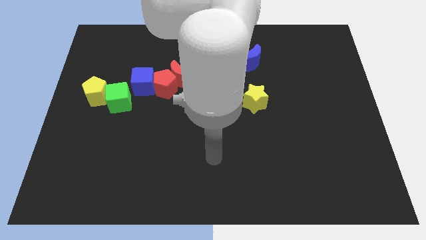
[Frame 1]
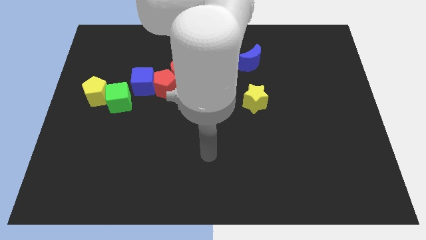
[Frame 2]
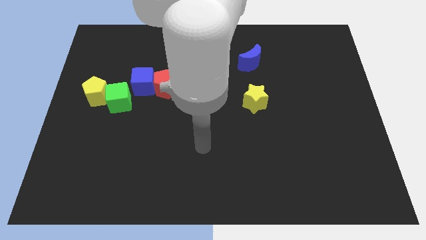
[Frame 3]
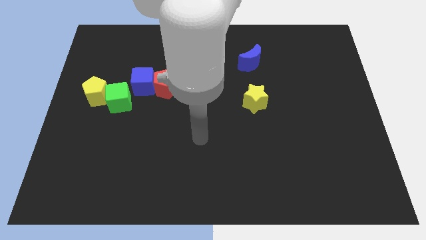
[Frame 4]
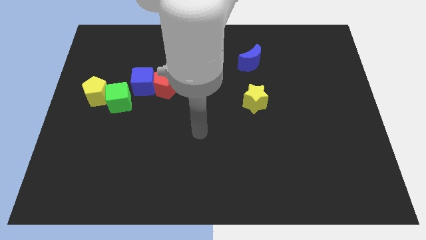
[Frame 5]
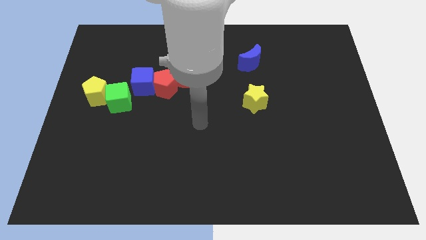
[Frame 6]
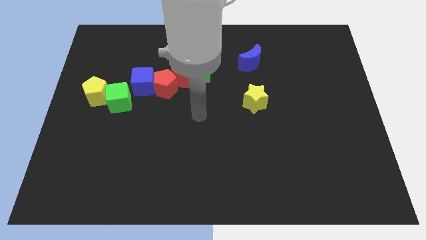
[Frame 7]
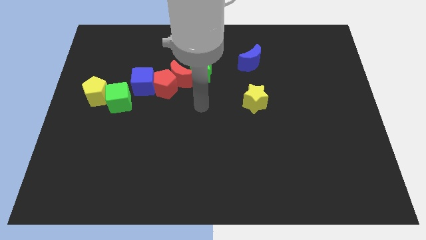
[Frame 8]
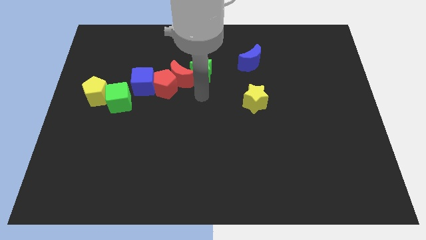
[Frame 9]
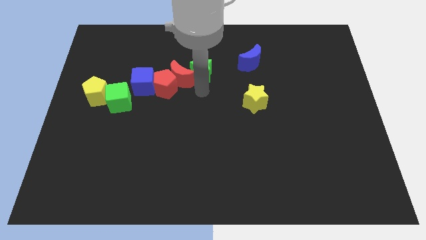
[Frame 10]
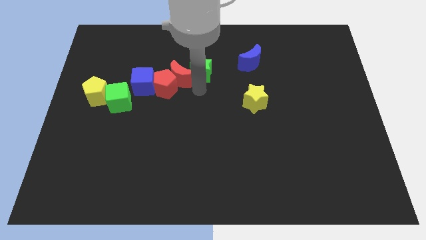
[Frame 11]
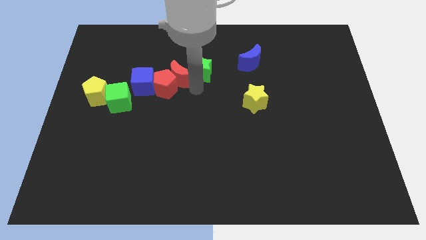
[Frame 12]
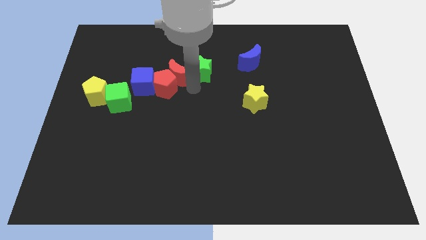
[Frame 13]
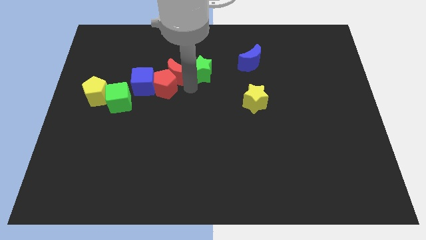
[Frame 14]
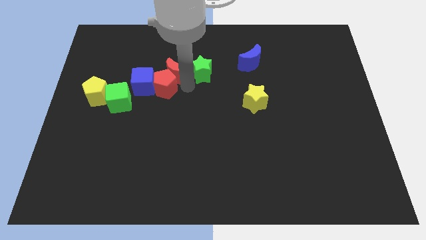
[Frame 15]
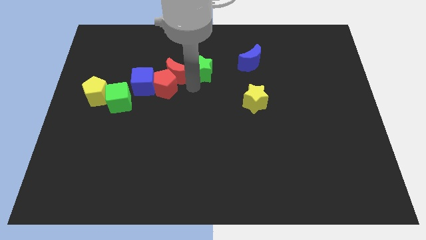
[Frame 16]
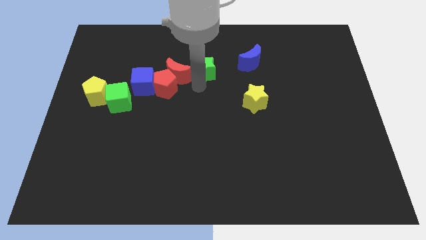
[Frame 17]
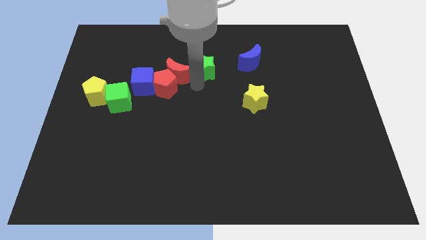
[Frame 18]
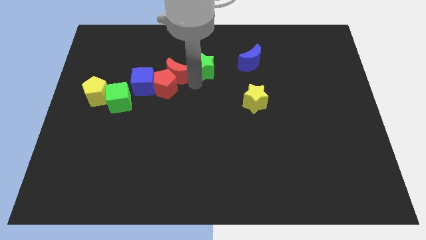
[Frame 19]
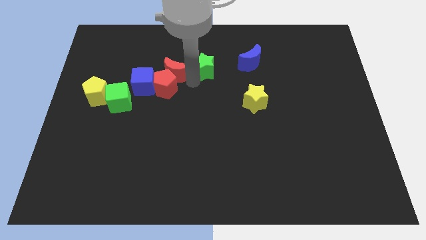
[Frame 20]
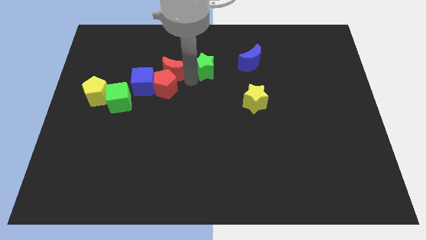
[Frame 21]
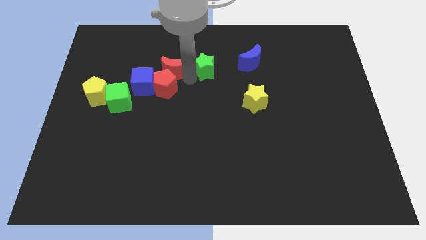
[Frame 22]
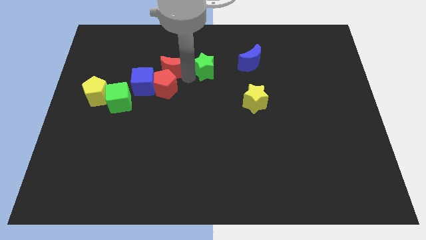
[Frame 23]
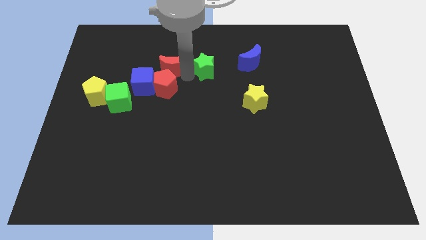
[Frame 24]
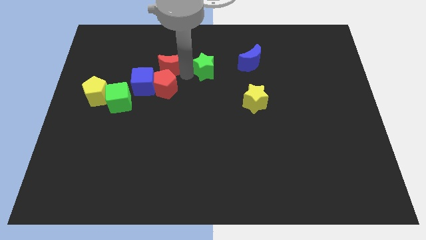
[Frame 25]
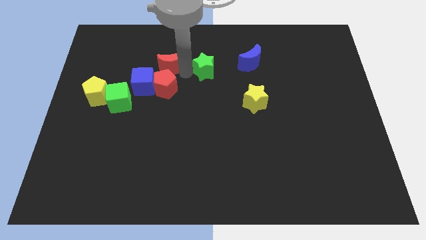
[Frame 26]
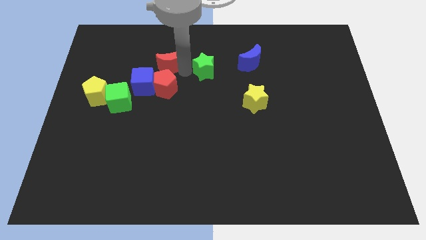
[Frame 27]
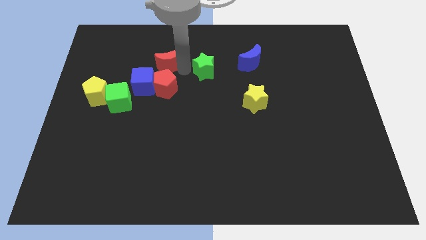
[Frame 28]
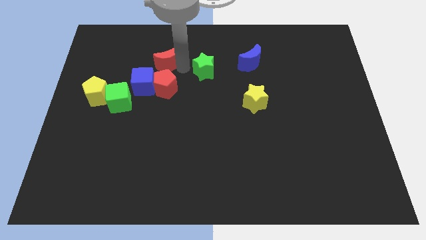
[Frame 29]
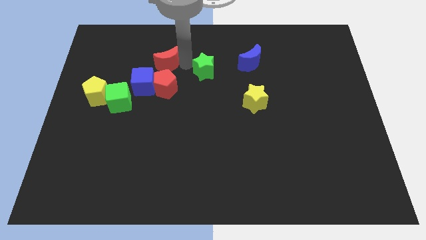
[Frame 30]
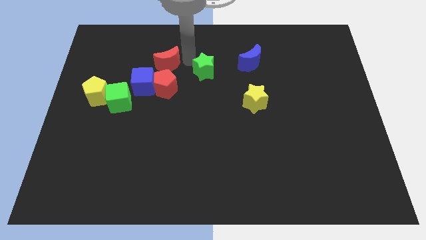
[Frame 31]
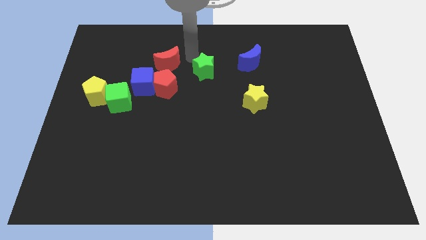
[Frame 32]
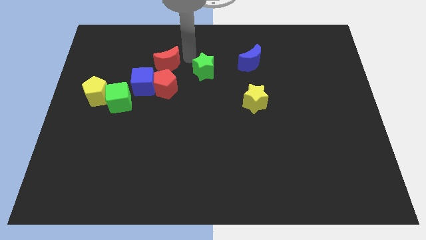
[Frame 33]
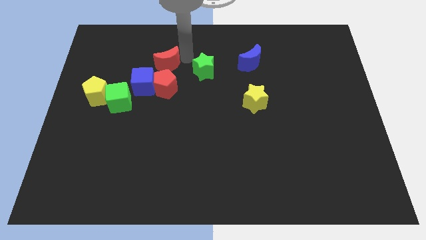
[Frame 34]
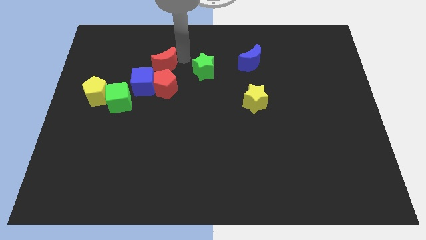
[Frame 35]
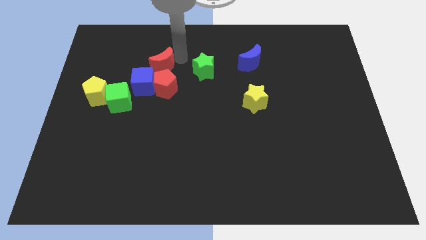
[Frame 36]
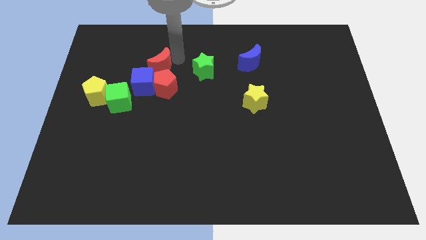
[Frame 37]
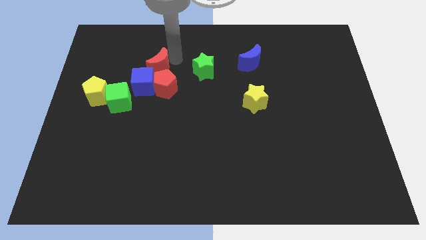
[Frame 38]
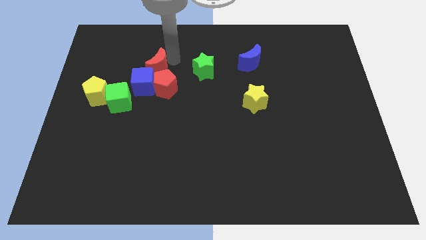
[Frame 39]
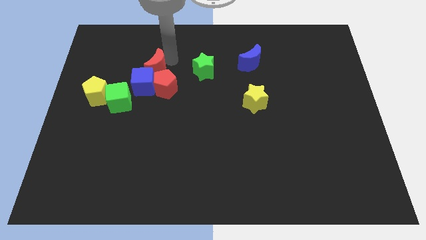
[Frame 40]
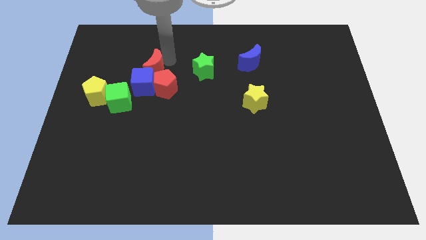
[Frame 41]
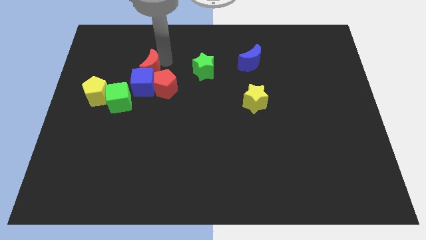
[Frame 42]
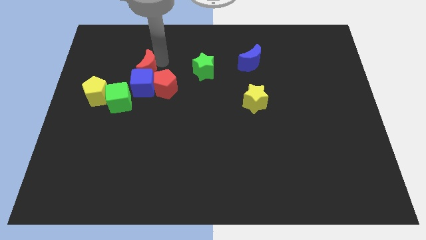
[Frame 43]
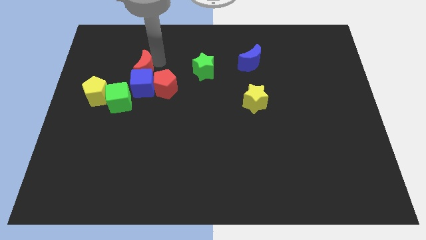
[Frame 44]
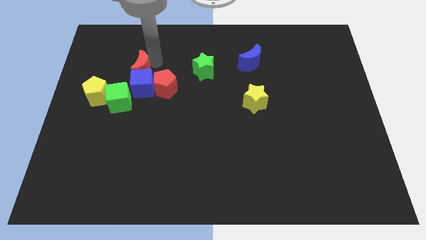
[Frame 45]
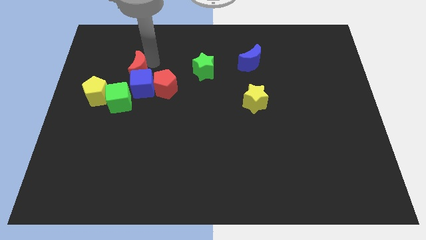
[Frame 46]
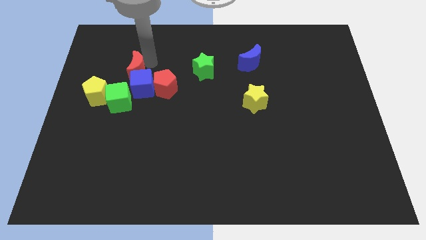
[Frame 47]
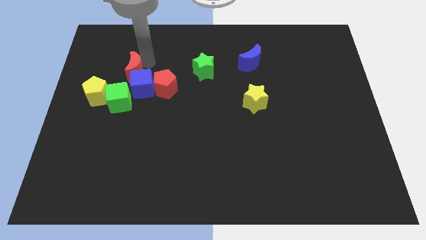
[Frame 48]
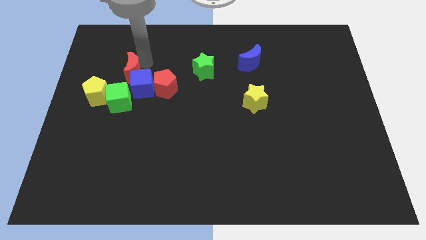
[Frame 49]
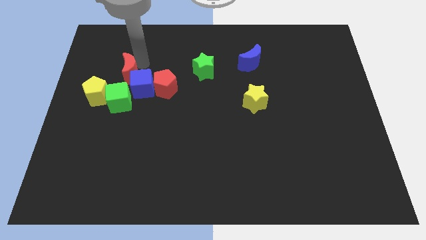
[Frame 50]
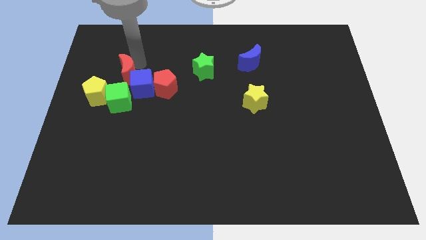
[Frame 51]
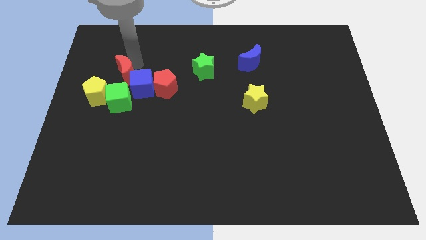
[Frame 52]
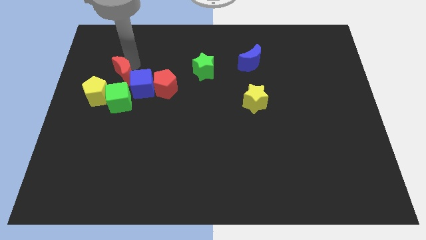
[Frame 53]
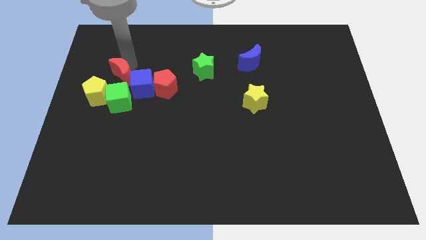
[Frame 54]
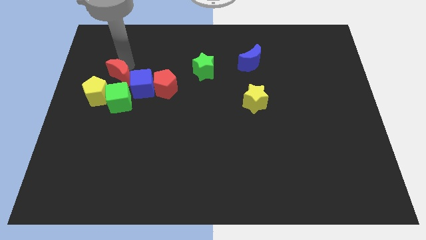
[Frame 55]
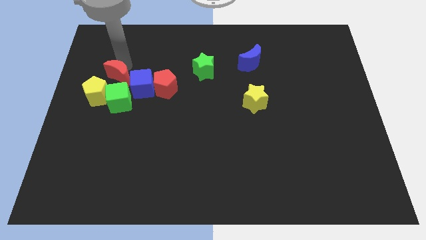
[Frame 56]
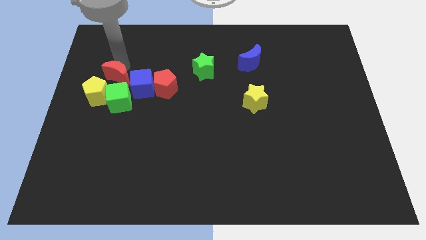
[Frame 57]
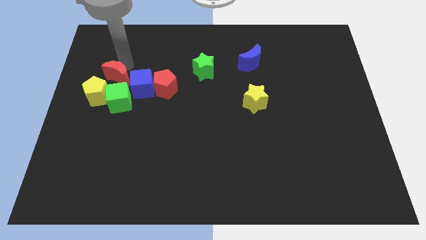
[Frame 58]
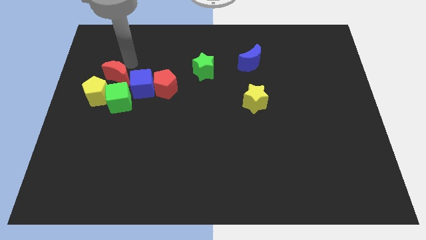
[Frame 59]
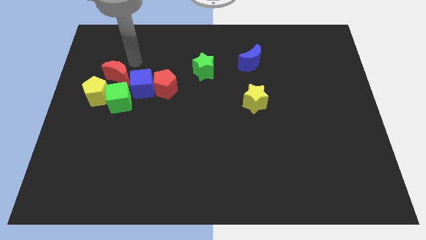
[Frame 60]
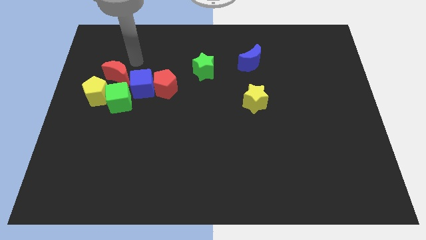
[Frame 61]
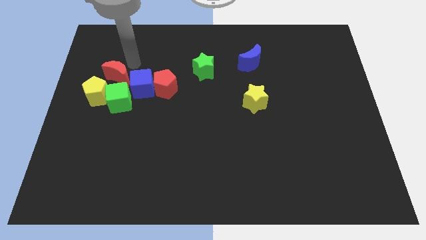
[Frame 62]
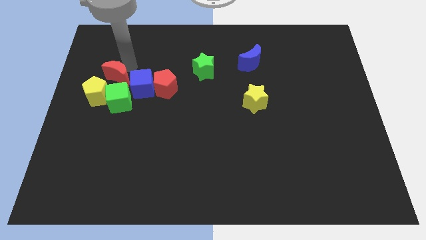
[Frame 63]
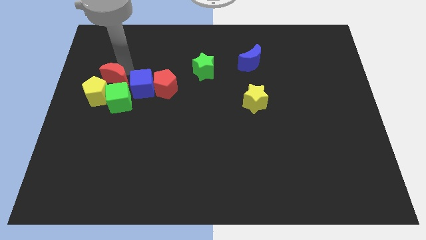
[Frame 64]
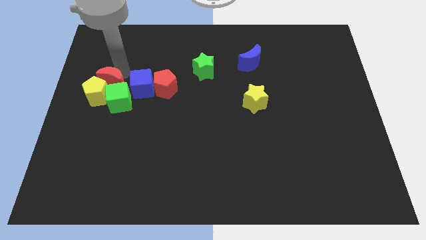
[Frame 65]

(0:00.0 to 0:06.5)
move the red moon to the yellow pentagon

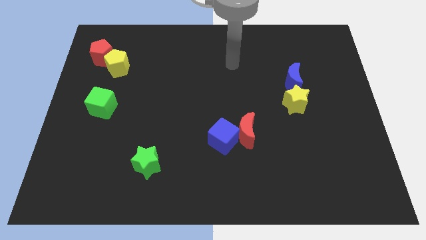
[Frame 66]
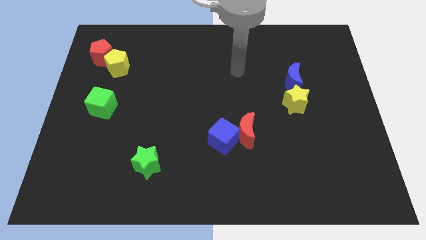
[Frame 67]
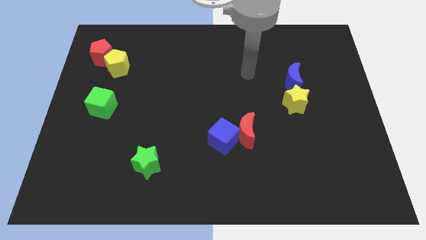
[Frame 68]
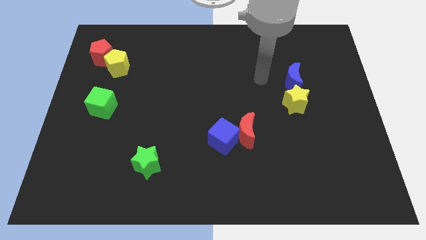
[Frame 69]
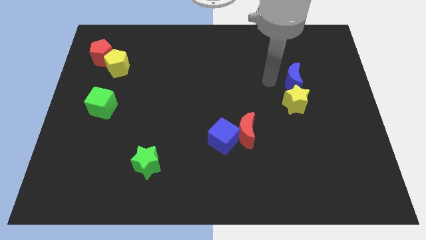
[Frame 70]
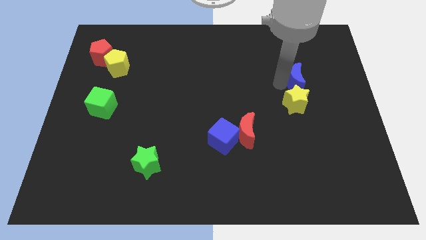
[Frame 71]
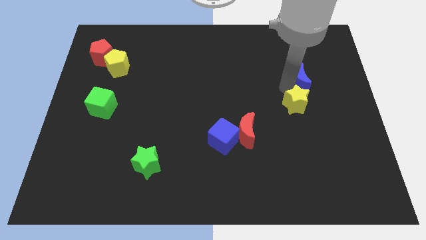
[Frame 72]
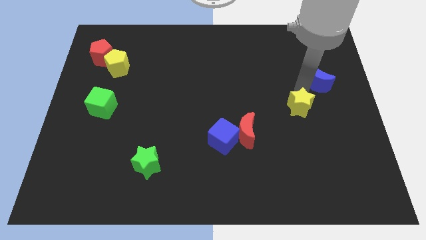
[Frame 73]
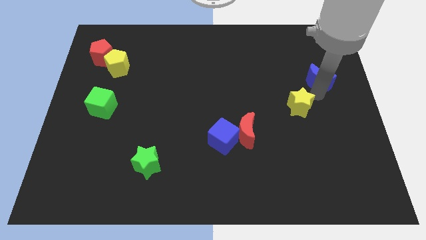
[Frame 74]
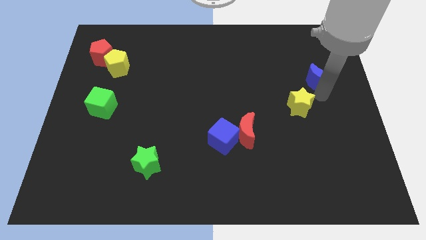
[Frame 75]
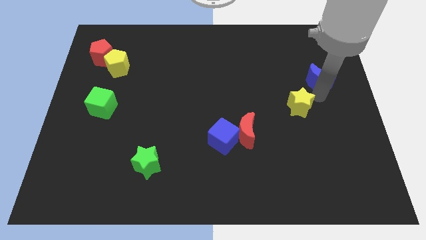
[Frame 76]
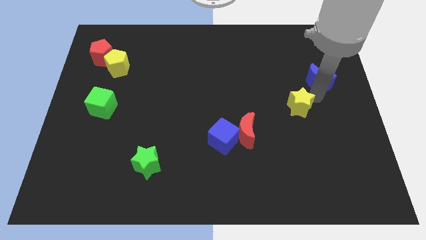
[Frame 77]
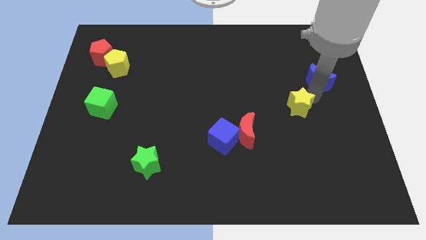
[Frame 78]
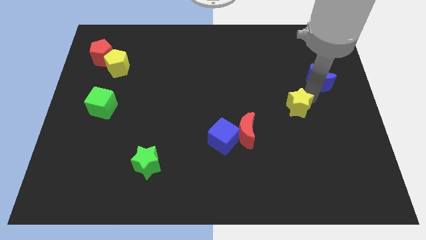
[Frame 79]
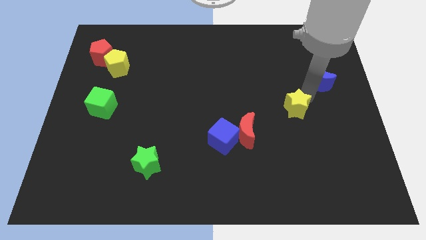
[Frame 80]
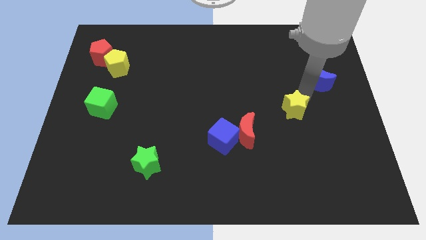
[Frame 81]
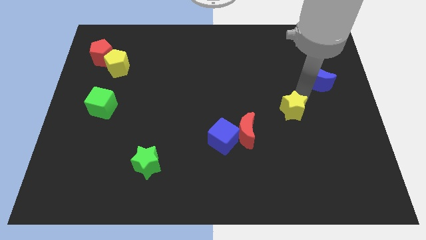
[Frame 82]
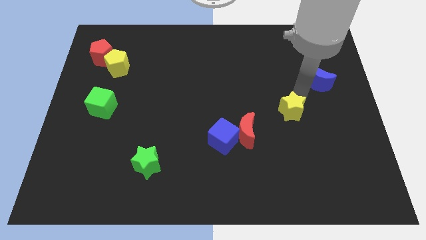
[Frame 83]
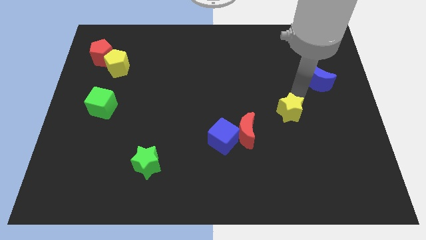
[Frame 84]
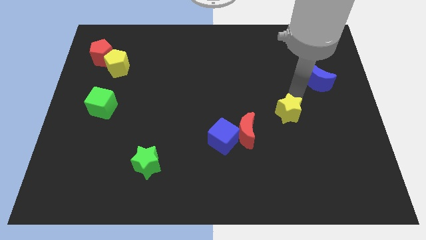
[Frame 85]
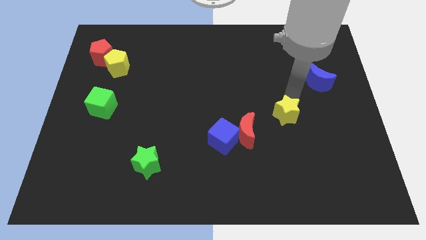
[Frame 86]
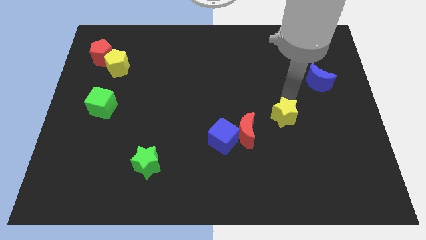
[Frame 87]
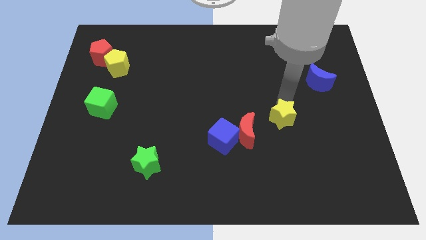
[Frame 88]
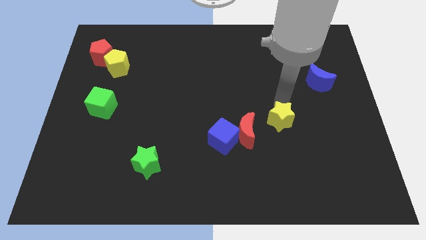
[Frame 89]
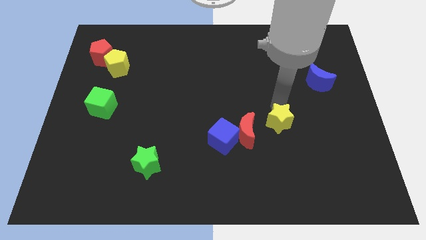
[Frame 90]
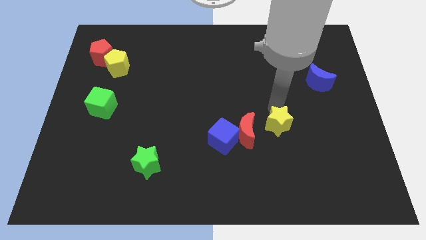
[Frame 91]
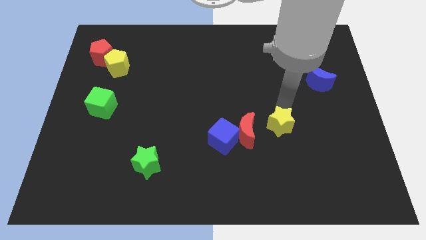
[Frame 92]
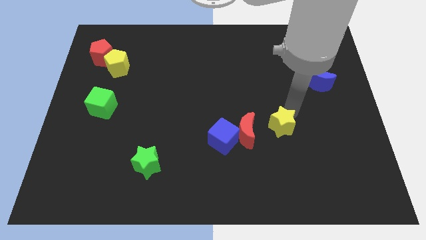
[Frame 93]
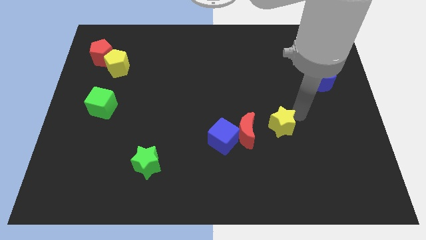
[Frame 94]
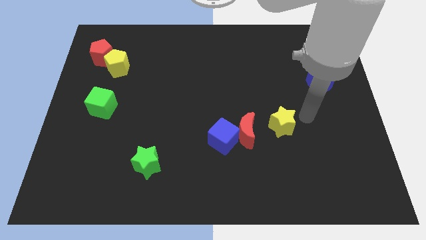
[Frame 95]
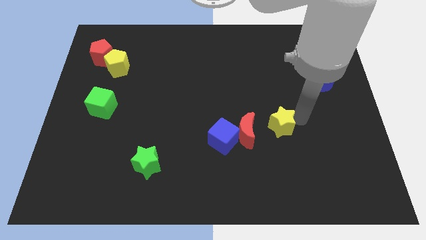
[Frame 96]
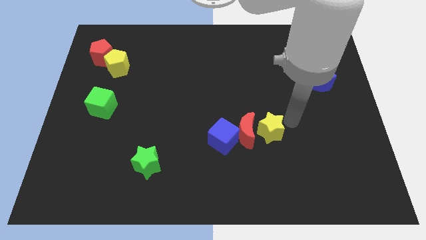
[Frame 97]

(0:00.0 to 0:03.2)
push the yellow star towards the red moon
